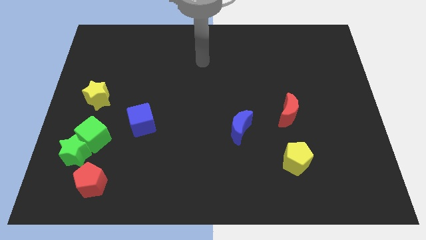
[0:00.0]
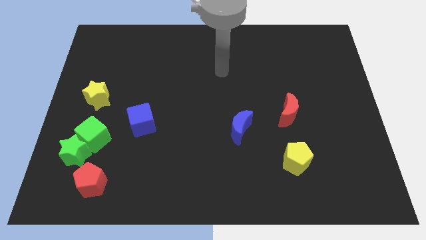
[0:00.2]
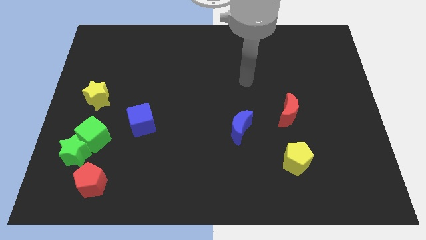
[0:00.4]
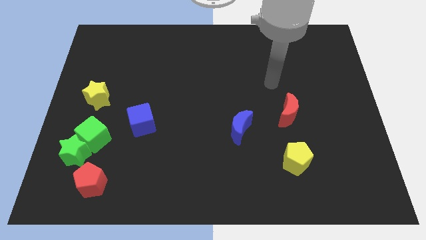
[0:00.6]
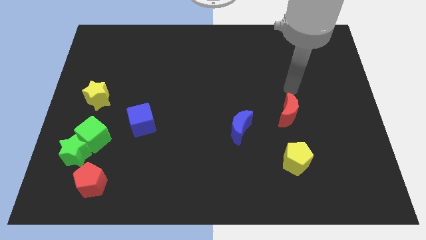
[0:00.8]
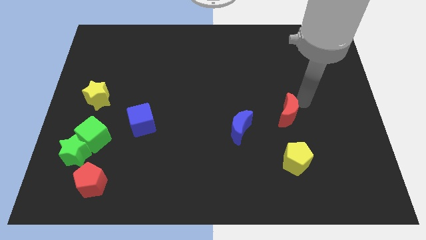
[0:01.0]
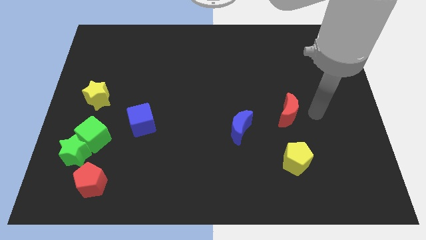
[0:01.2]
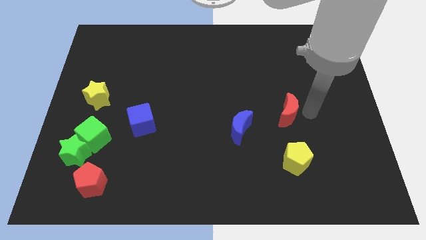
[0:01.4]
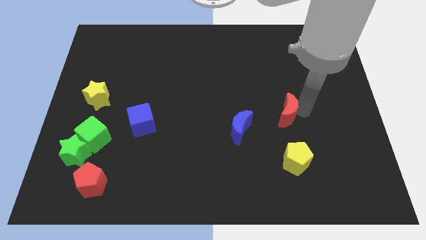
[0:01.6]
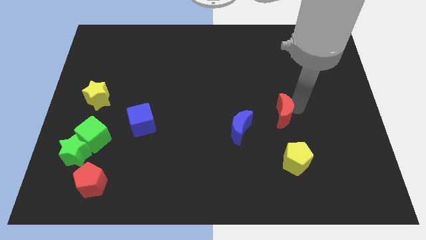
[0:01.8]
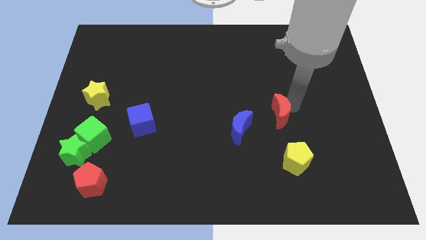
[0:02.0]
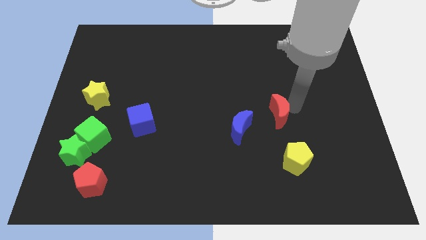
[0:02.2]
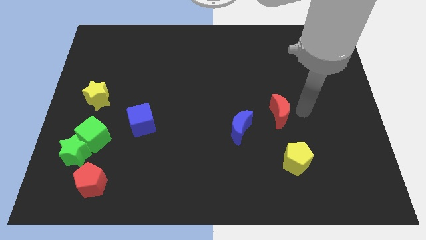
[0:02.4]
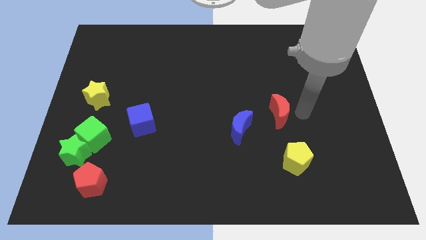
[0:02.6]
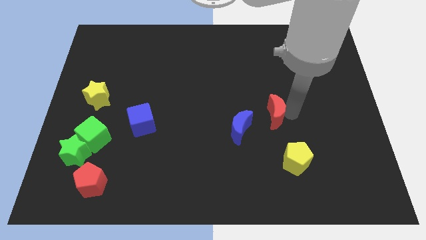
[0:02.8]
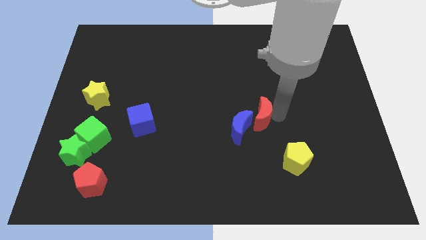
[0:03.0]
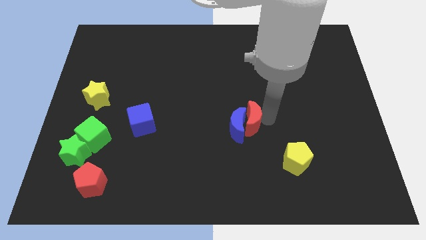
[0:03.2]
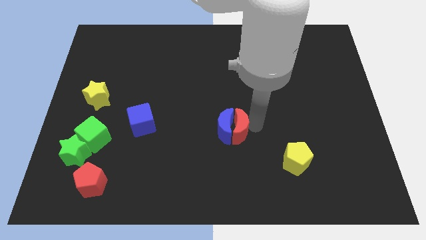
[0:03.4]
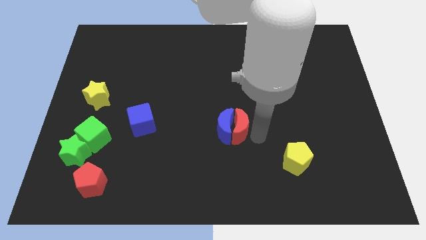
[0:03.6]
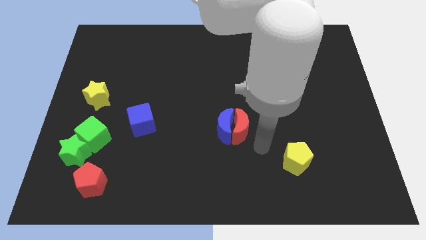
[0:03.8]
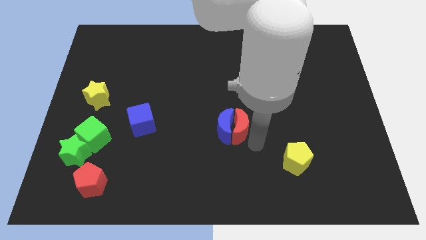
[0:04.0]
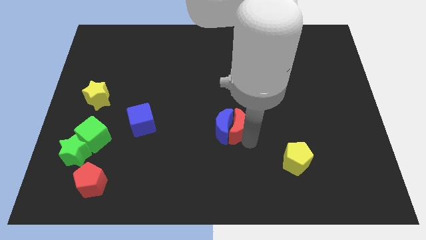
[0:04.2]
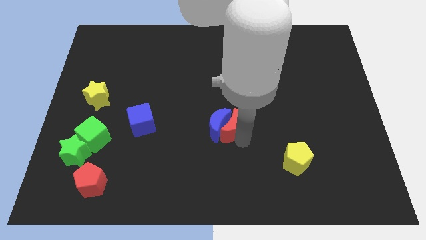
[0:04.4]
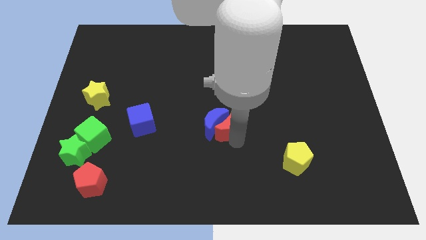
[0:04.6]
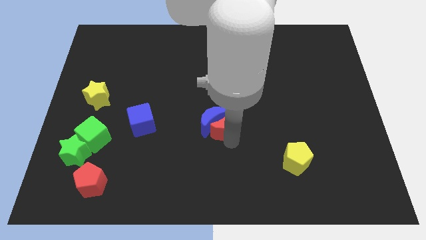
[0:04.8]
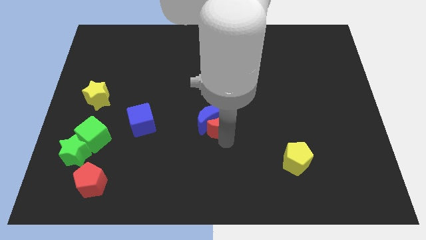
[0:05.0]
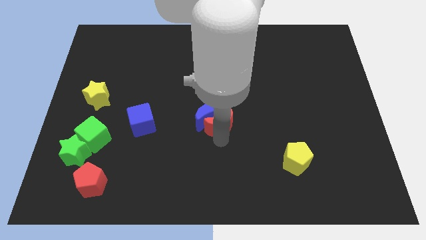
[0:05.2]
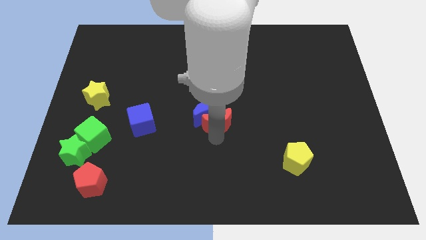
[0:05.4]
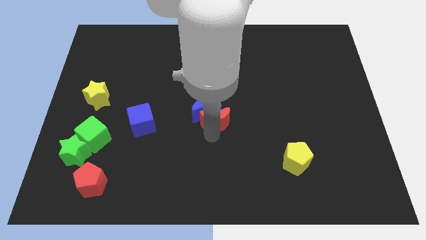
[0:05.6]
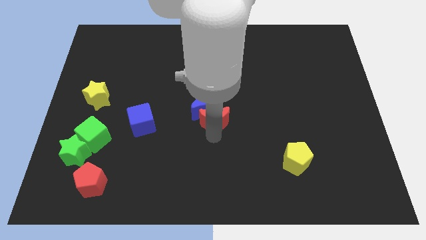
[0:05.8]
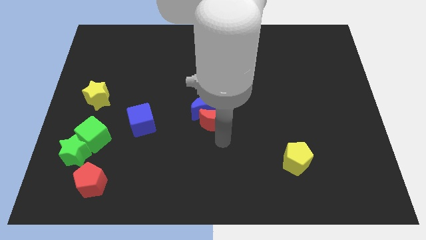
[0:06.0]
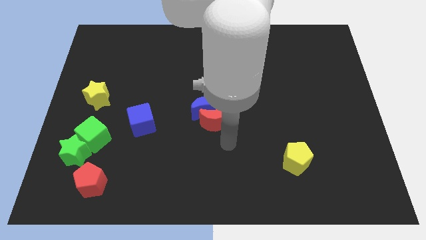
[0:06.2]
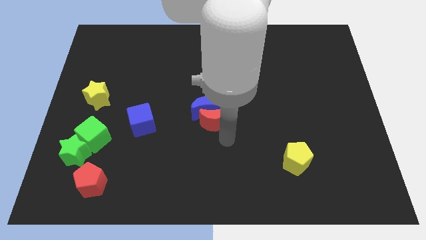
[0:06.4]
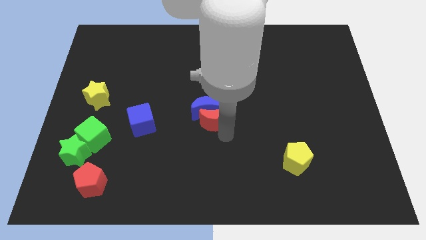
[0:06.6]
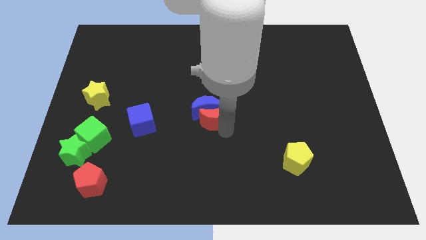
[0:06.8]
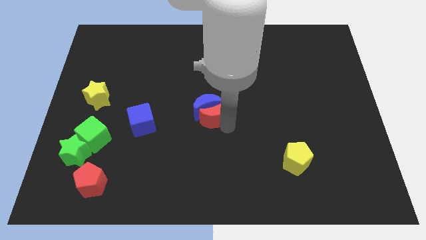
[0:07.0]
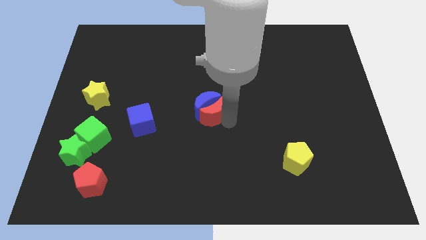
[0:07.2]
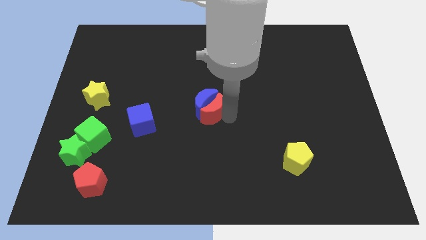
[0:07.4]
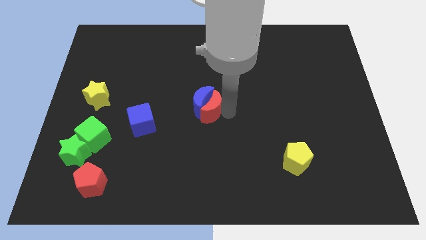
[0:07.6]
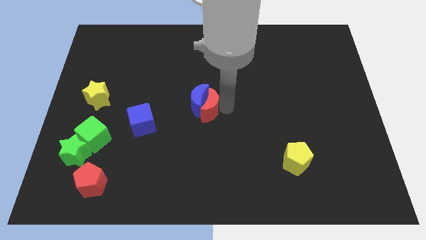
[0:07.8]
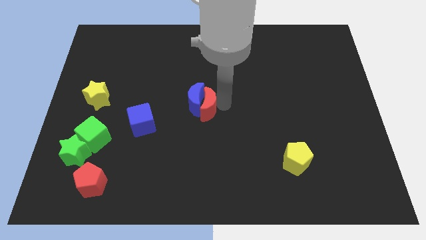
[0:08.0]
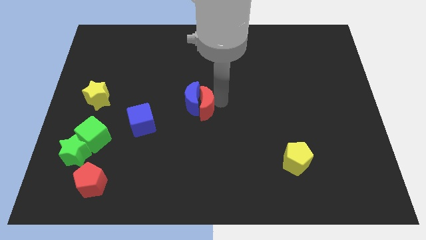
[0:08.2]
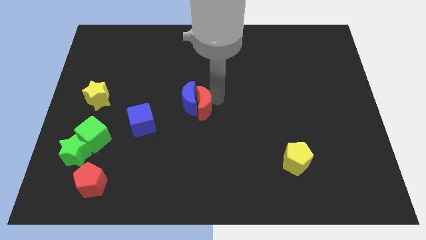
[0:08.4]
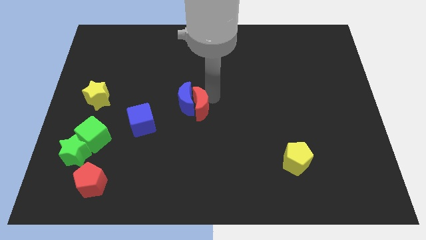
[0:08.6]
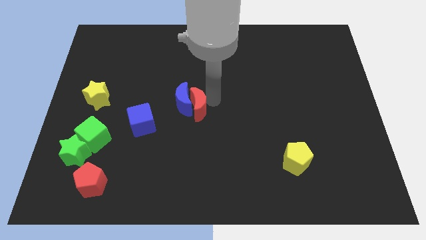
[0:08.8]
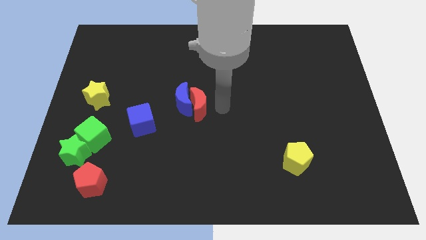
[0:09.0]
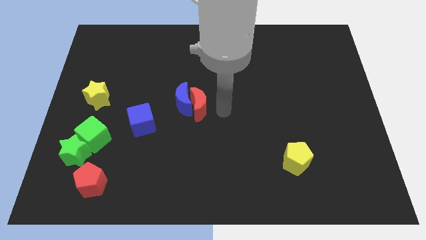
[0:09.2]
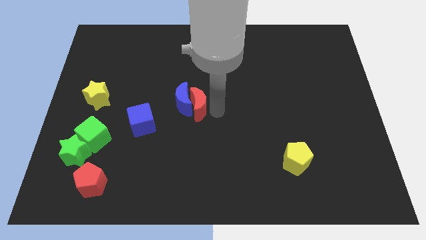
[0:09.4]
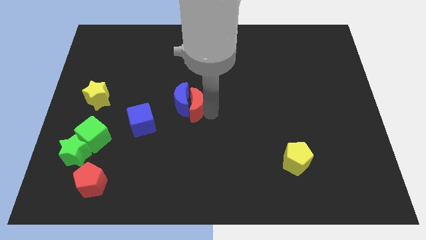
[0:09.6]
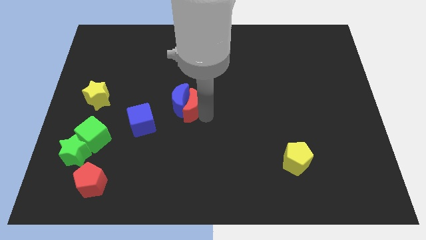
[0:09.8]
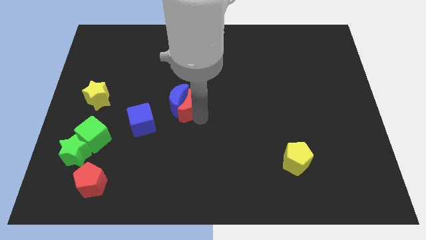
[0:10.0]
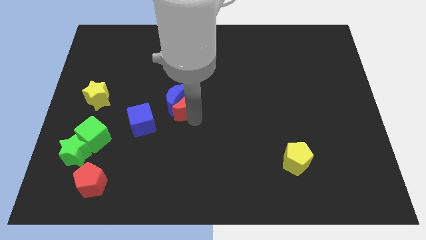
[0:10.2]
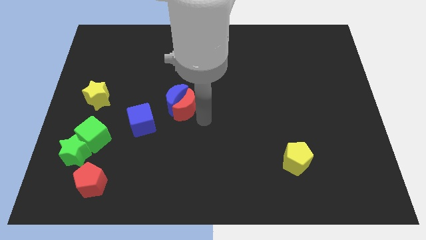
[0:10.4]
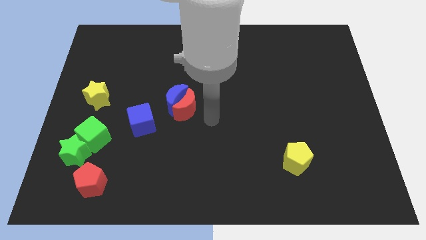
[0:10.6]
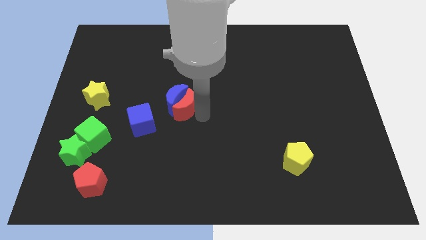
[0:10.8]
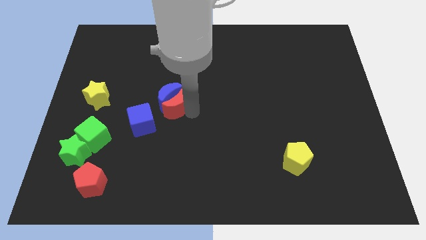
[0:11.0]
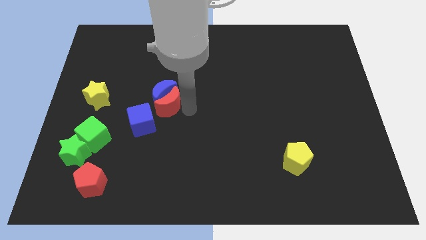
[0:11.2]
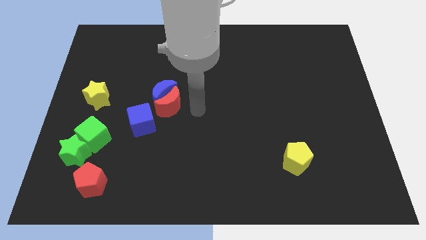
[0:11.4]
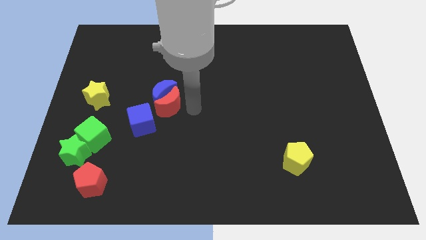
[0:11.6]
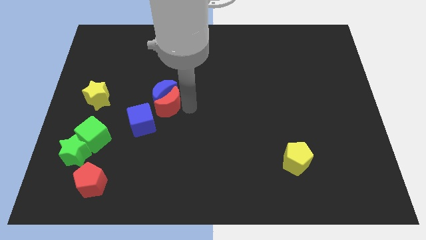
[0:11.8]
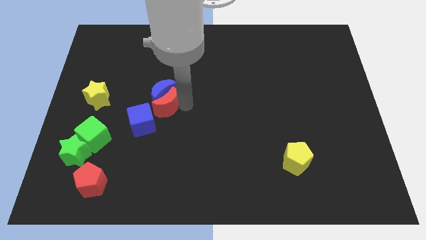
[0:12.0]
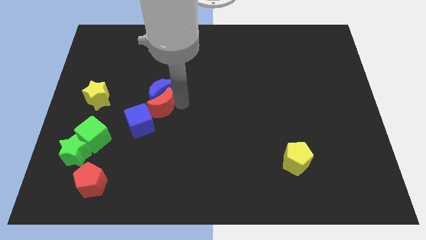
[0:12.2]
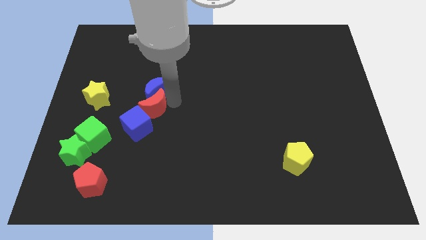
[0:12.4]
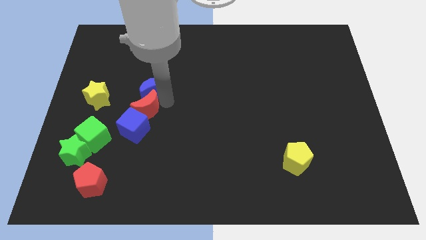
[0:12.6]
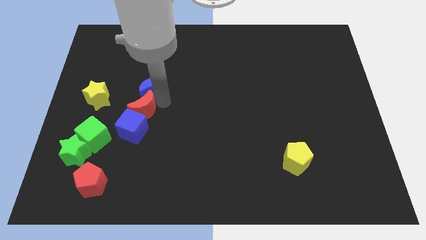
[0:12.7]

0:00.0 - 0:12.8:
move the red moon to the top right side of the green cube

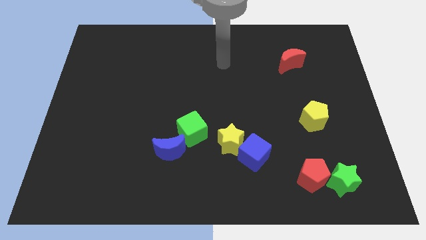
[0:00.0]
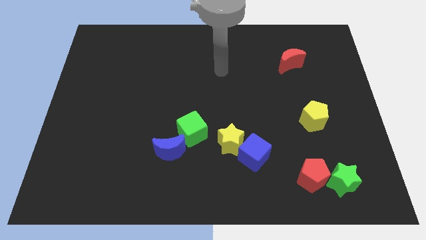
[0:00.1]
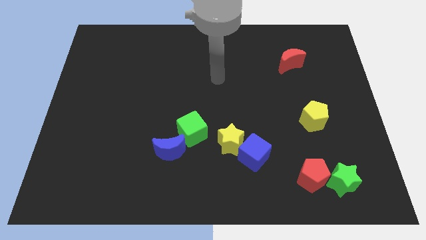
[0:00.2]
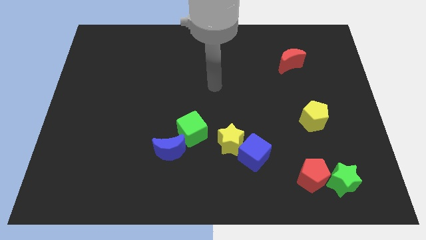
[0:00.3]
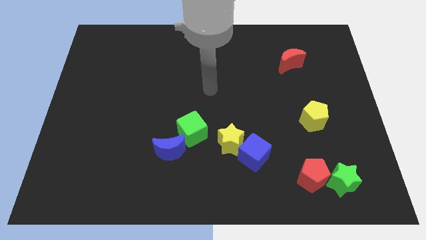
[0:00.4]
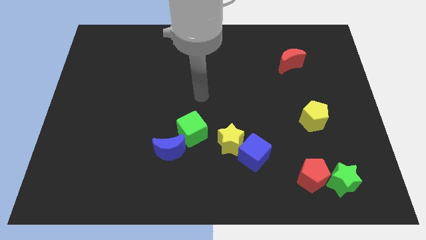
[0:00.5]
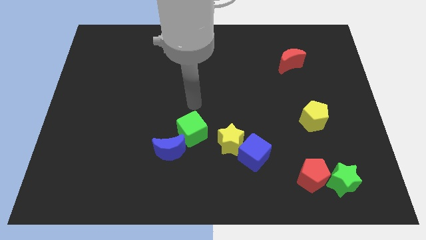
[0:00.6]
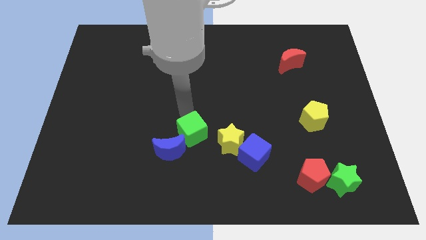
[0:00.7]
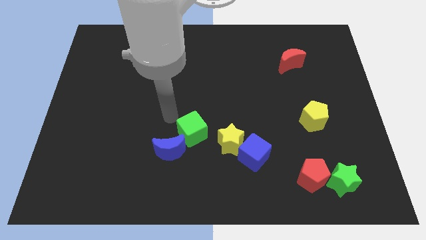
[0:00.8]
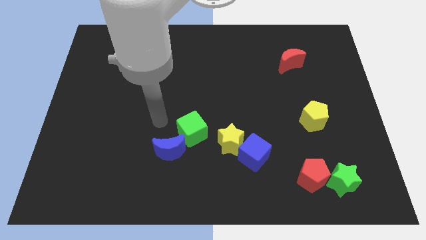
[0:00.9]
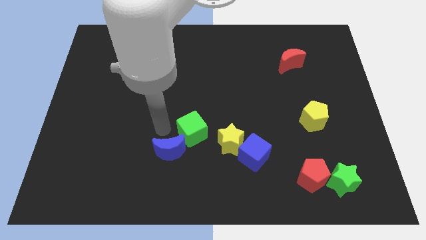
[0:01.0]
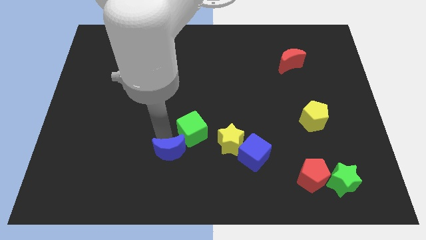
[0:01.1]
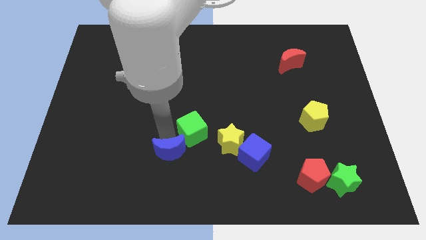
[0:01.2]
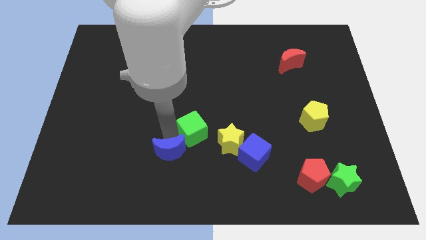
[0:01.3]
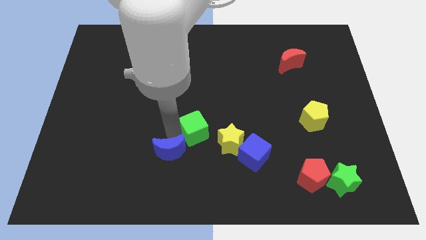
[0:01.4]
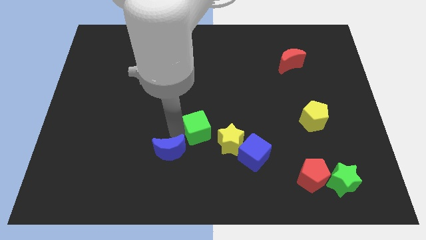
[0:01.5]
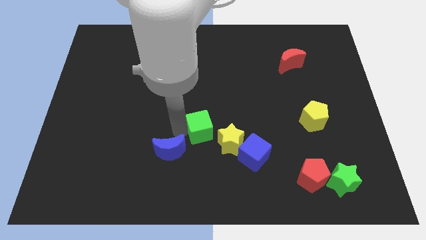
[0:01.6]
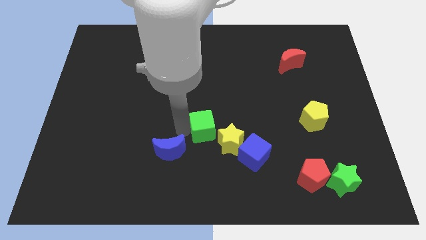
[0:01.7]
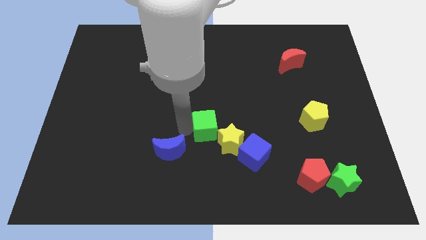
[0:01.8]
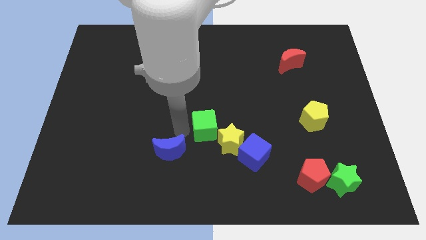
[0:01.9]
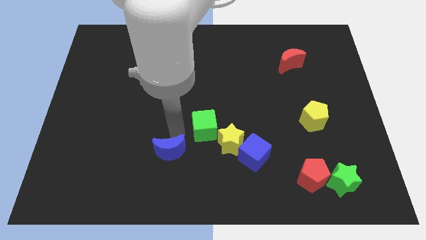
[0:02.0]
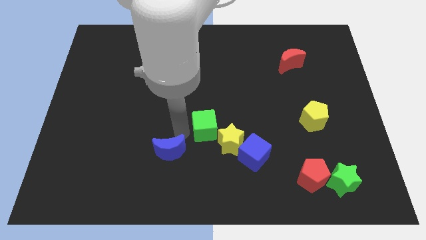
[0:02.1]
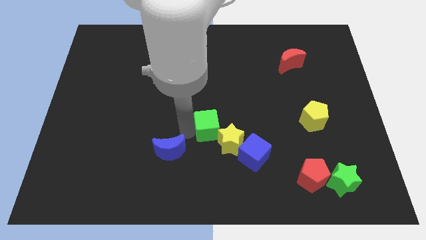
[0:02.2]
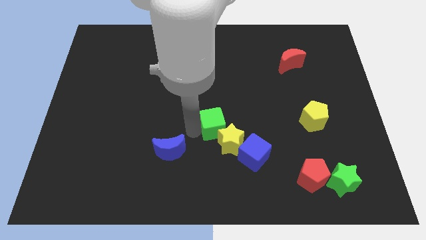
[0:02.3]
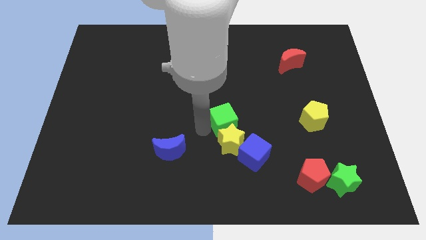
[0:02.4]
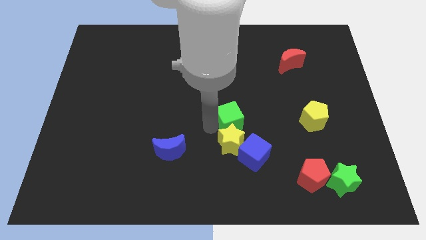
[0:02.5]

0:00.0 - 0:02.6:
slide the green cube to the top of the blue cube
